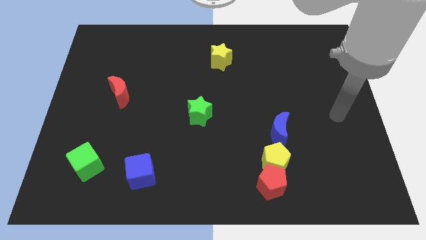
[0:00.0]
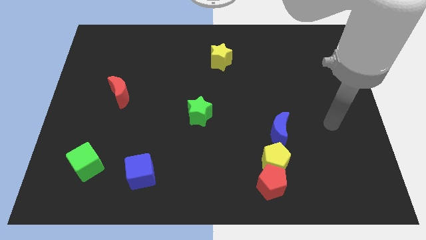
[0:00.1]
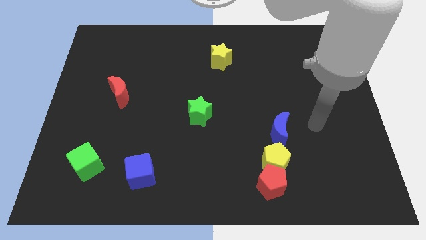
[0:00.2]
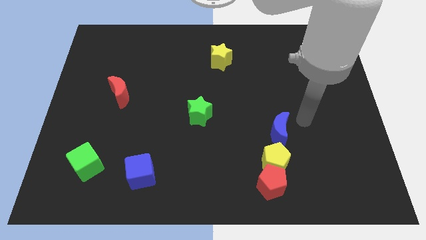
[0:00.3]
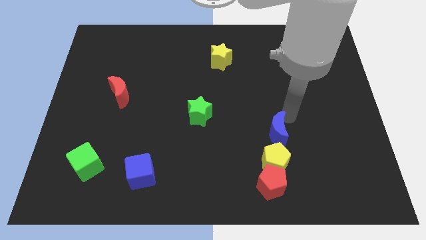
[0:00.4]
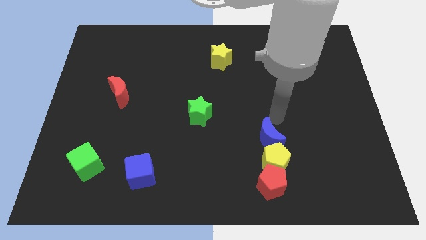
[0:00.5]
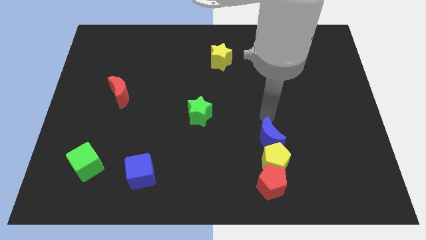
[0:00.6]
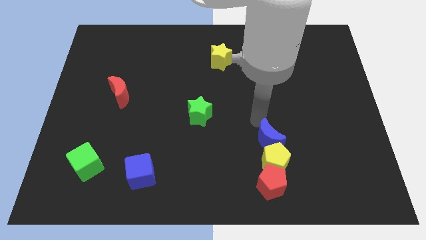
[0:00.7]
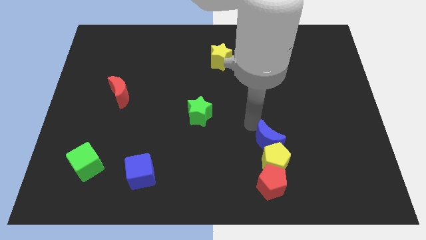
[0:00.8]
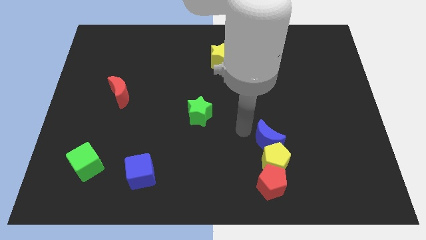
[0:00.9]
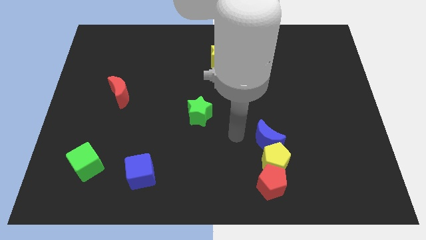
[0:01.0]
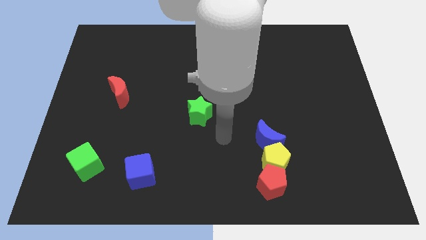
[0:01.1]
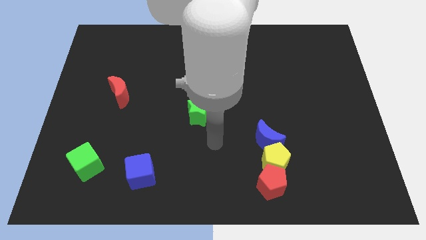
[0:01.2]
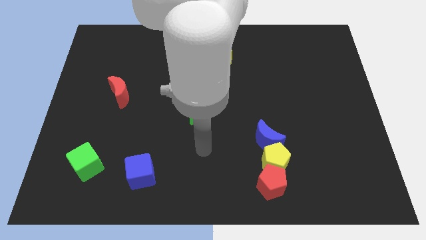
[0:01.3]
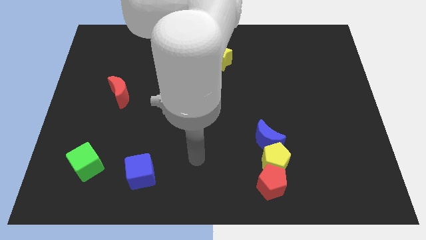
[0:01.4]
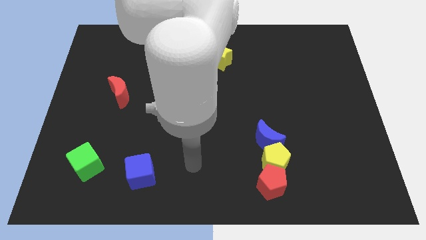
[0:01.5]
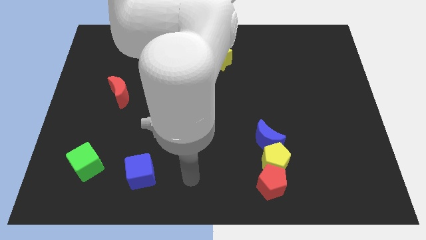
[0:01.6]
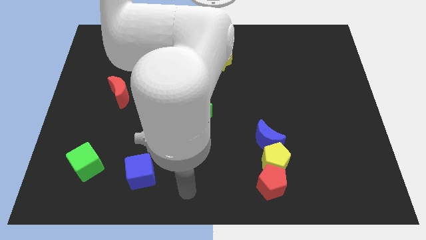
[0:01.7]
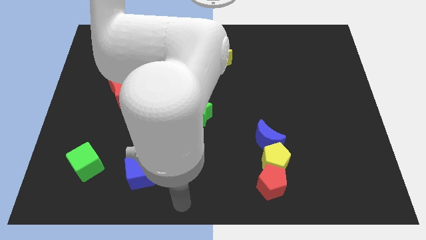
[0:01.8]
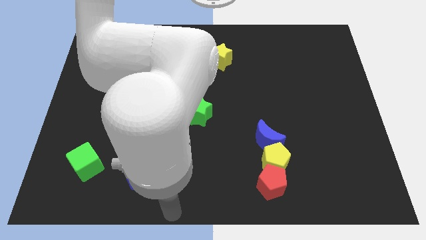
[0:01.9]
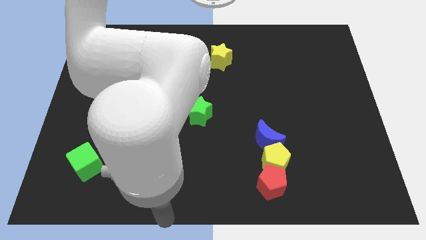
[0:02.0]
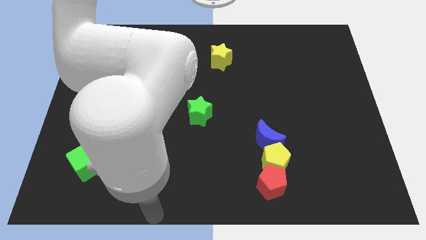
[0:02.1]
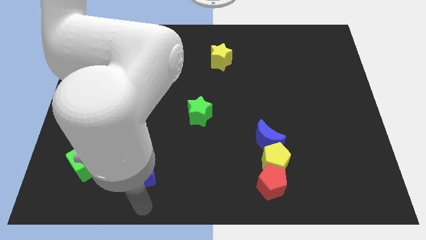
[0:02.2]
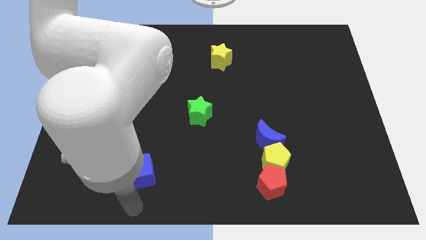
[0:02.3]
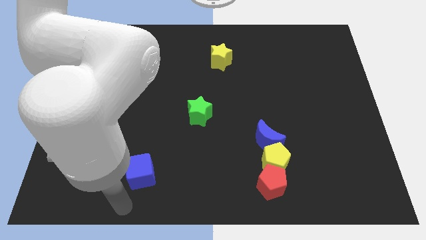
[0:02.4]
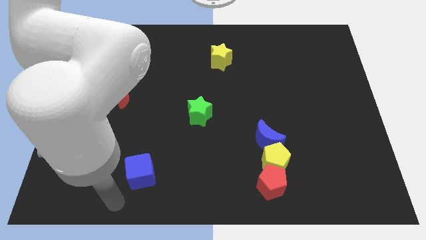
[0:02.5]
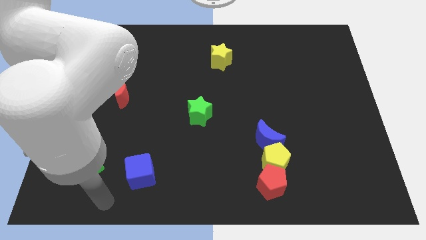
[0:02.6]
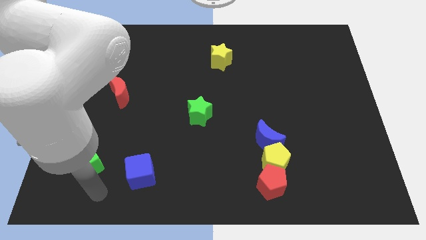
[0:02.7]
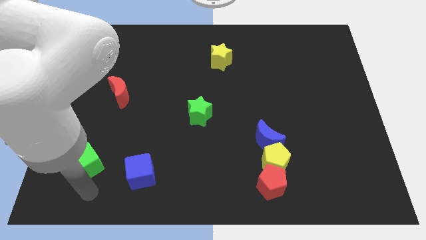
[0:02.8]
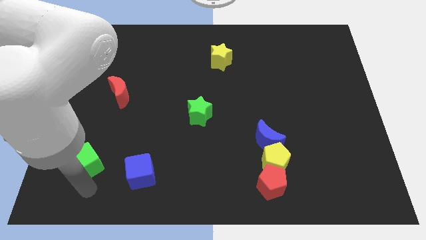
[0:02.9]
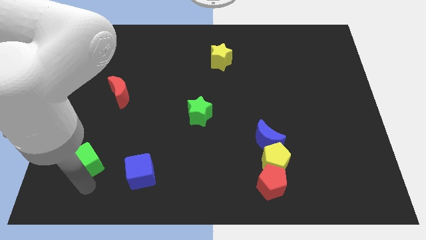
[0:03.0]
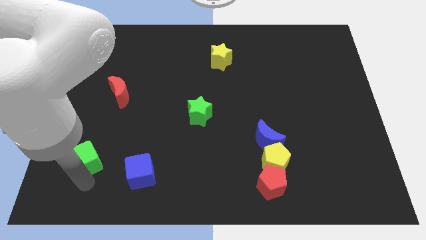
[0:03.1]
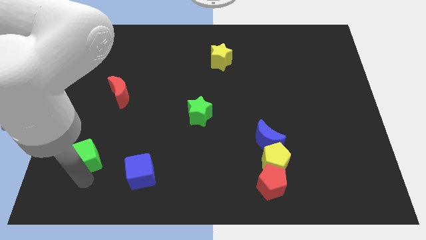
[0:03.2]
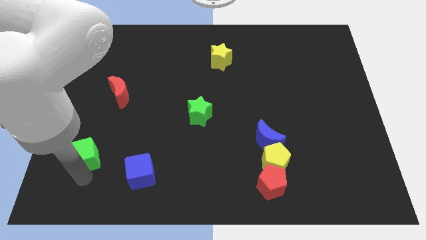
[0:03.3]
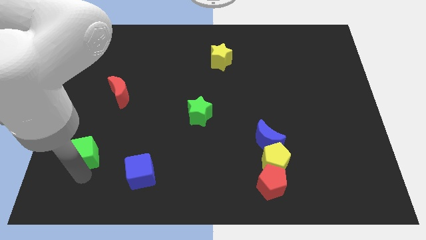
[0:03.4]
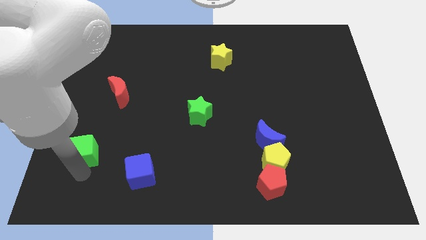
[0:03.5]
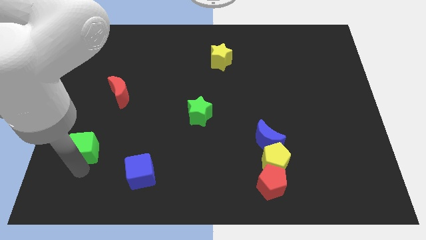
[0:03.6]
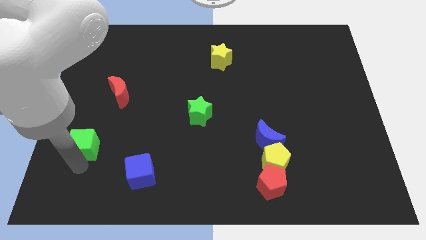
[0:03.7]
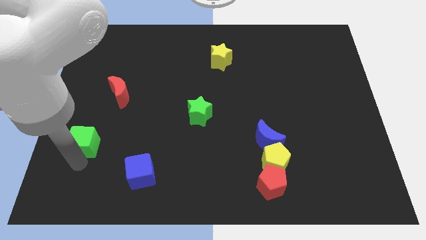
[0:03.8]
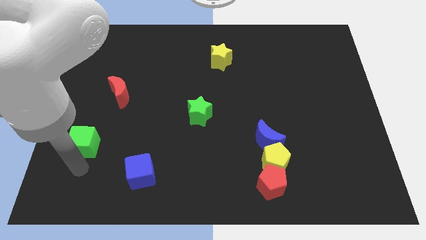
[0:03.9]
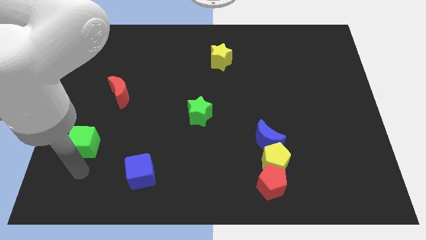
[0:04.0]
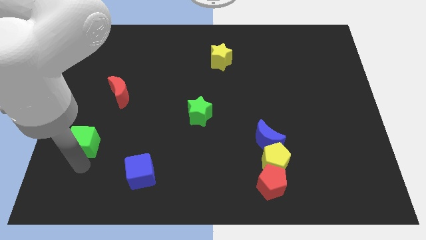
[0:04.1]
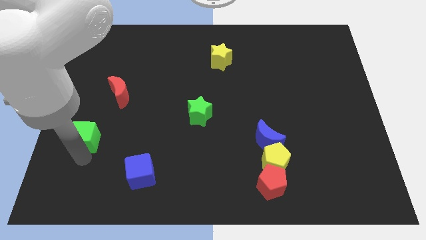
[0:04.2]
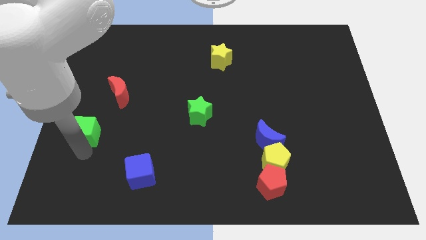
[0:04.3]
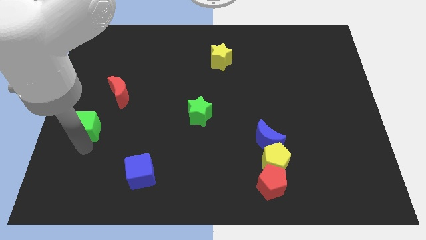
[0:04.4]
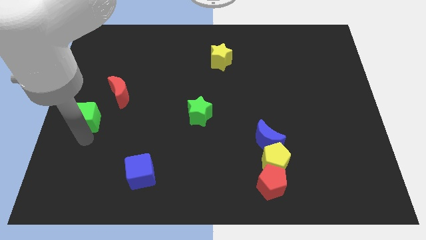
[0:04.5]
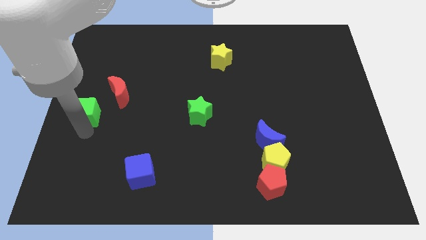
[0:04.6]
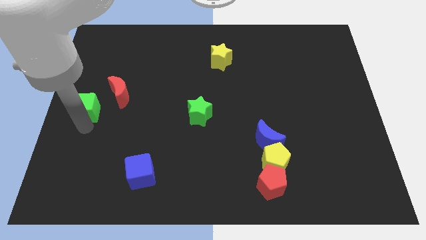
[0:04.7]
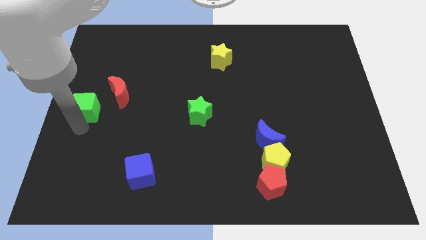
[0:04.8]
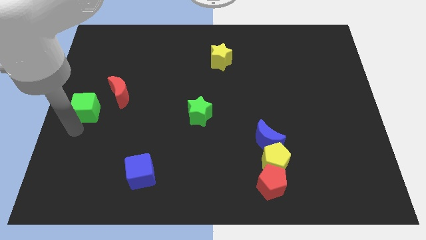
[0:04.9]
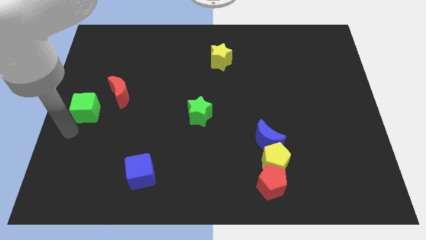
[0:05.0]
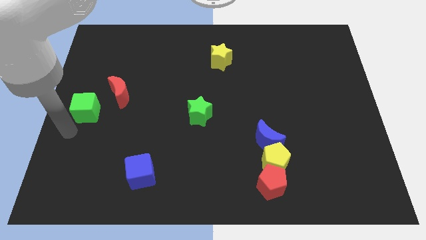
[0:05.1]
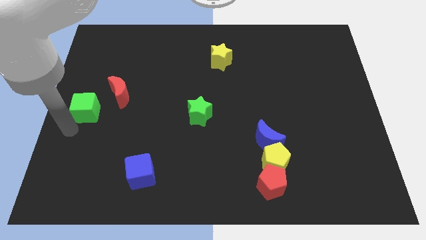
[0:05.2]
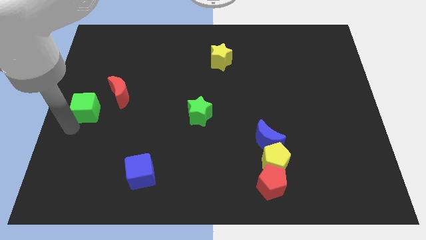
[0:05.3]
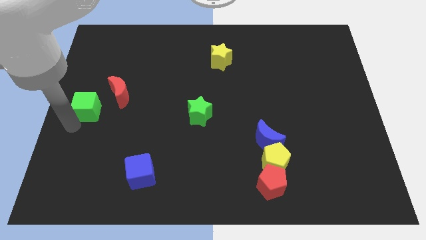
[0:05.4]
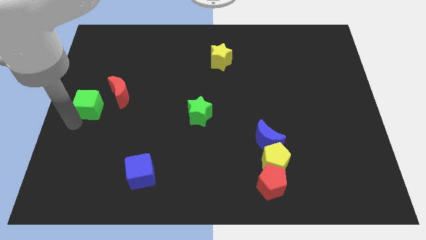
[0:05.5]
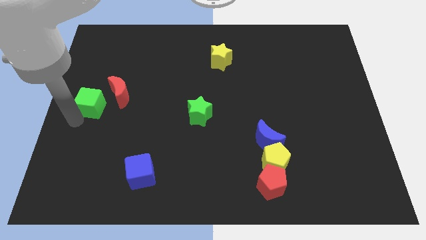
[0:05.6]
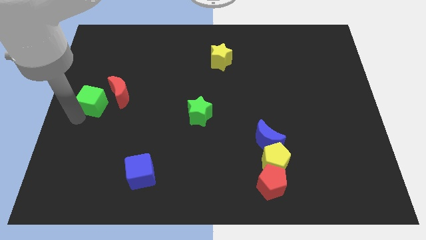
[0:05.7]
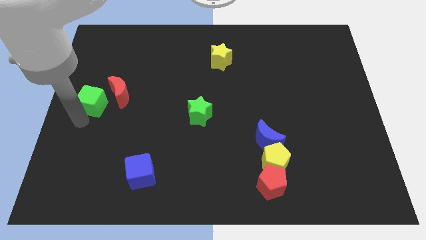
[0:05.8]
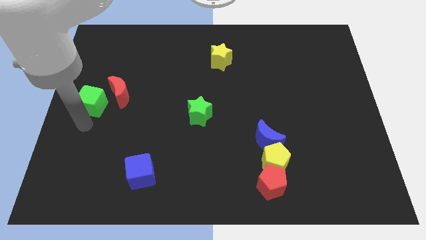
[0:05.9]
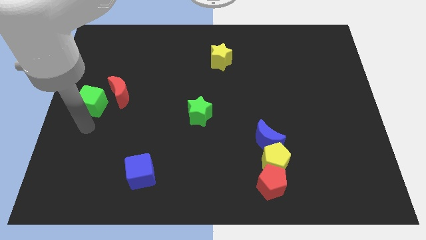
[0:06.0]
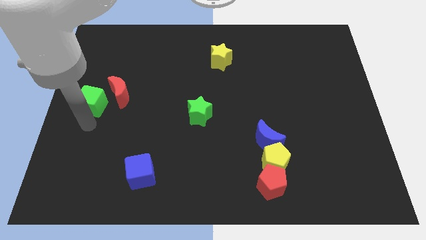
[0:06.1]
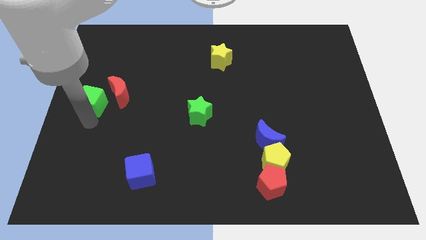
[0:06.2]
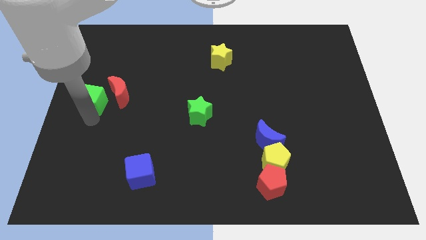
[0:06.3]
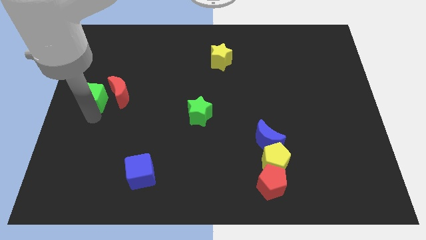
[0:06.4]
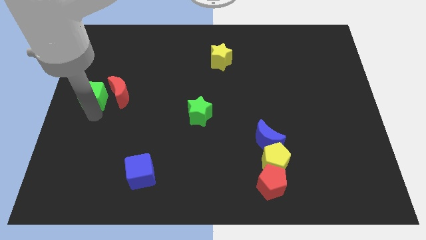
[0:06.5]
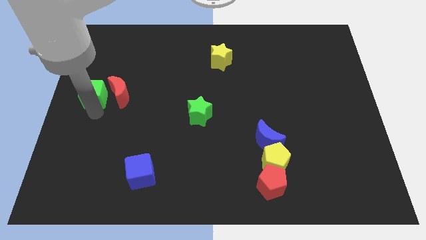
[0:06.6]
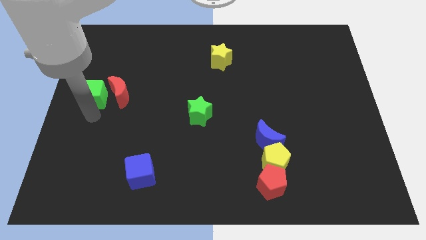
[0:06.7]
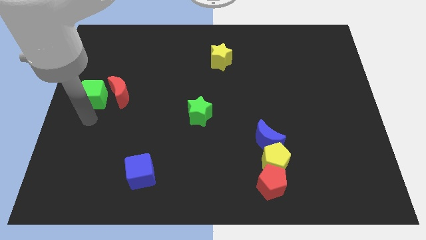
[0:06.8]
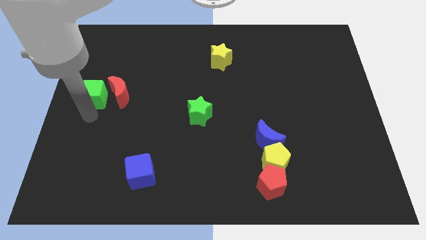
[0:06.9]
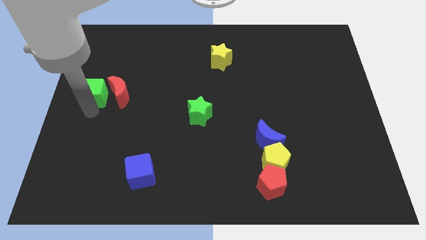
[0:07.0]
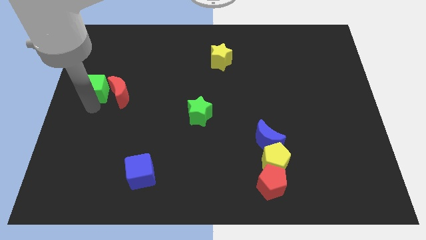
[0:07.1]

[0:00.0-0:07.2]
slide the green cube up

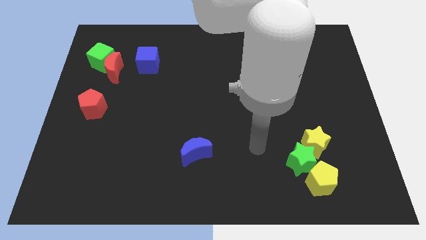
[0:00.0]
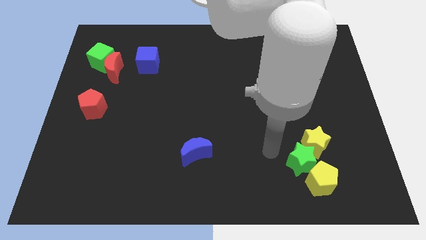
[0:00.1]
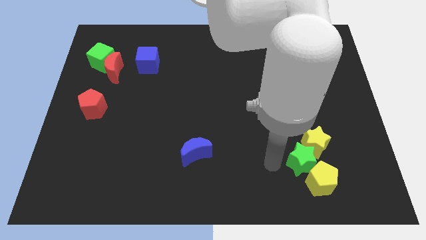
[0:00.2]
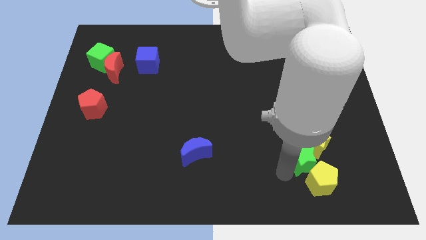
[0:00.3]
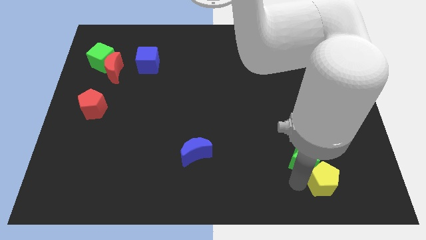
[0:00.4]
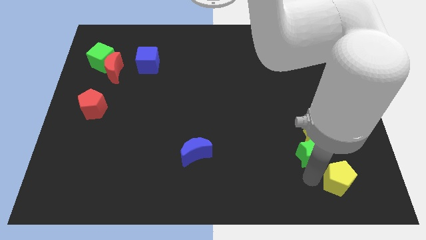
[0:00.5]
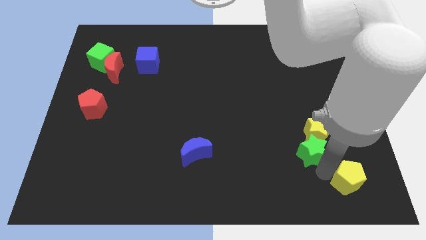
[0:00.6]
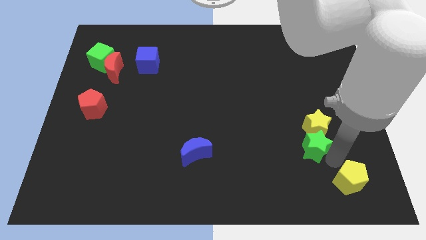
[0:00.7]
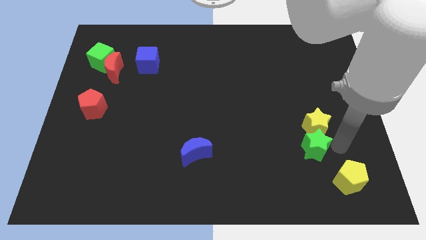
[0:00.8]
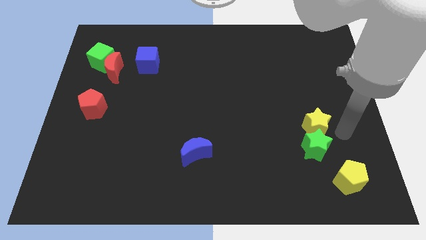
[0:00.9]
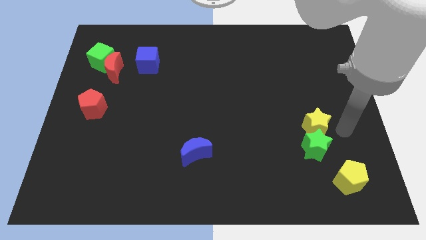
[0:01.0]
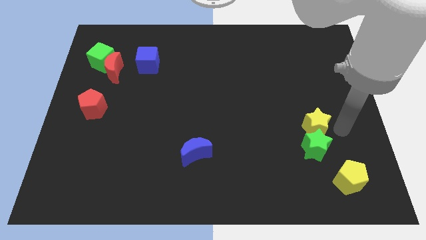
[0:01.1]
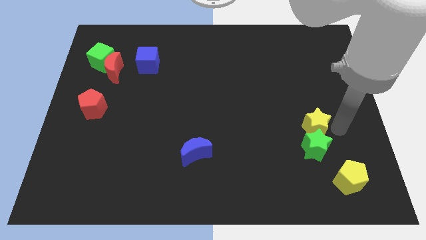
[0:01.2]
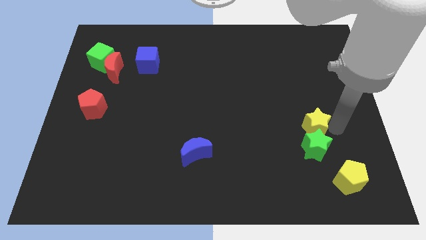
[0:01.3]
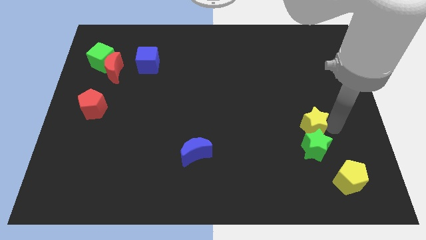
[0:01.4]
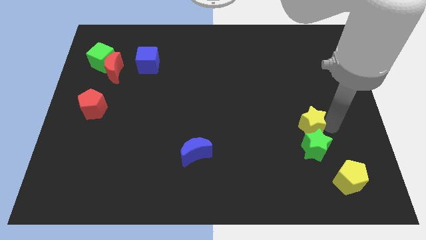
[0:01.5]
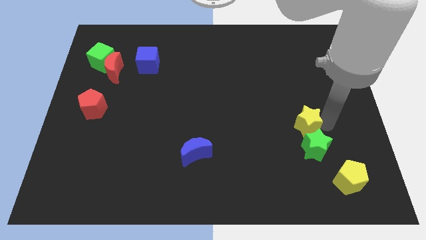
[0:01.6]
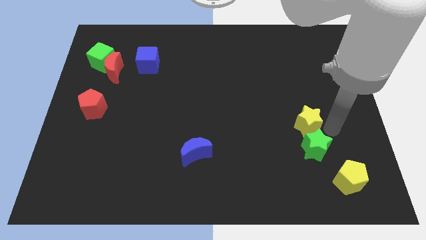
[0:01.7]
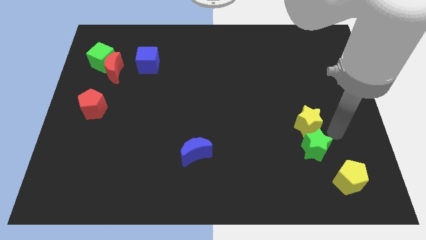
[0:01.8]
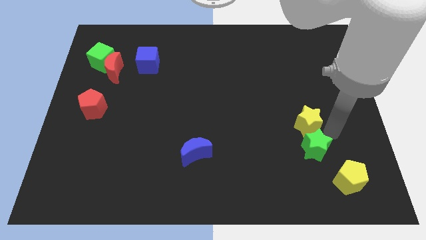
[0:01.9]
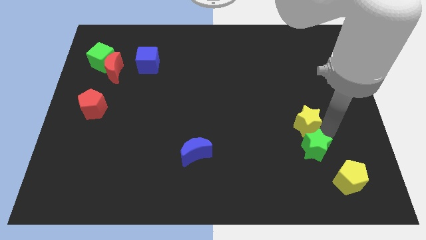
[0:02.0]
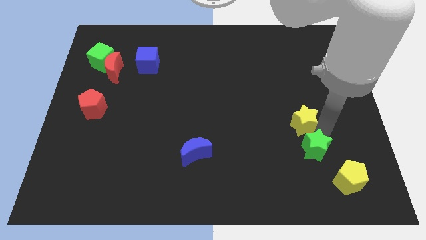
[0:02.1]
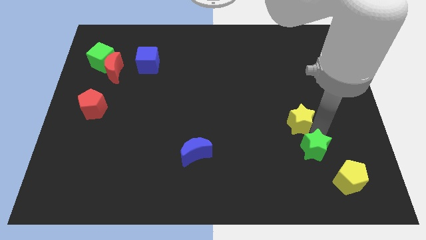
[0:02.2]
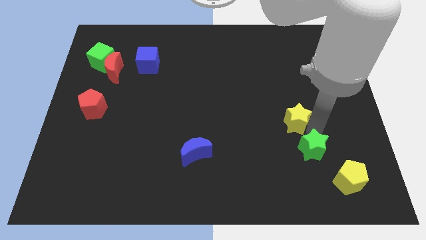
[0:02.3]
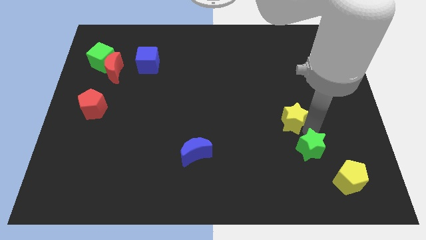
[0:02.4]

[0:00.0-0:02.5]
slide the yellow star a bit up and to the left
